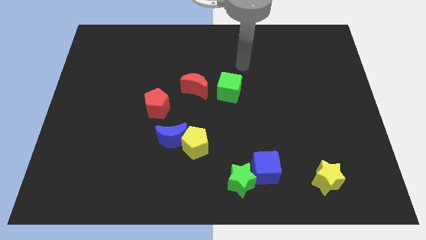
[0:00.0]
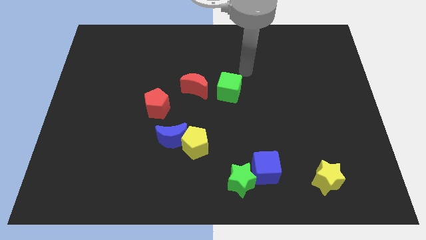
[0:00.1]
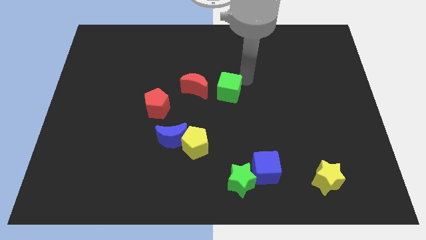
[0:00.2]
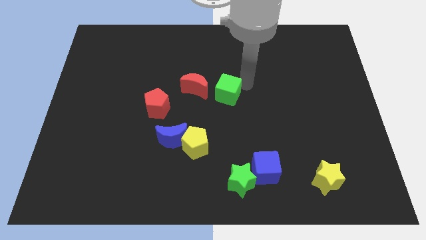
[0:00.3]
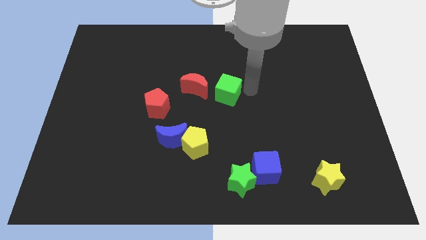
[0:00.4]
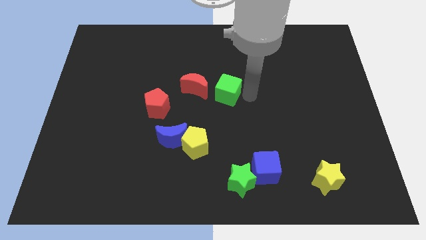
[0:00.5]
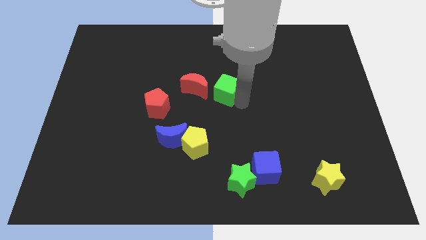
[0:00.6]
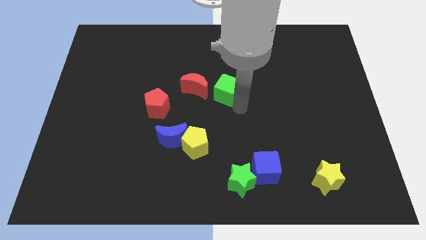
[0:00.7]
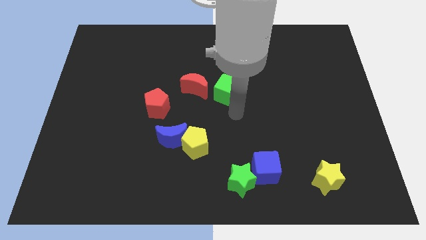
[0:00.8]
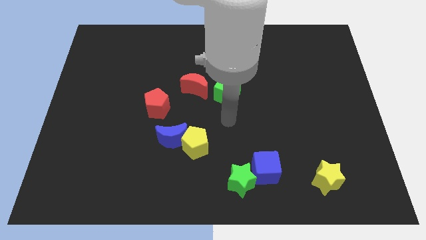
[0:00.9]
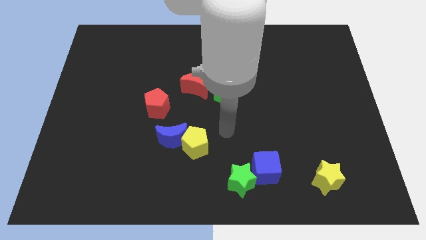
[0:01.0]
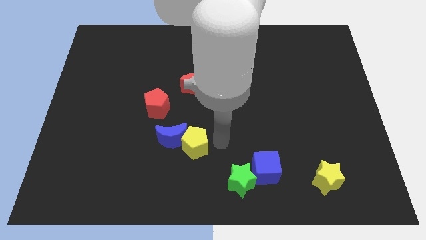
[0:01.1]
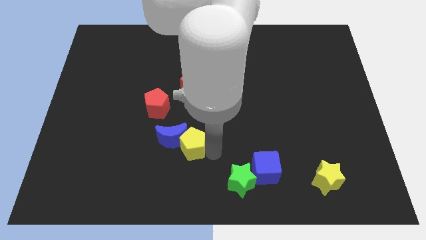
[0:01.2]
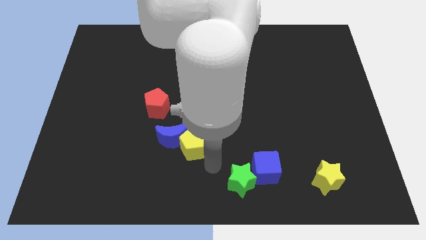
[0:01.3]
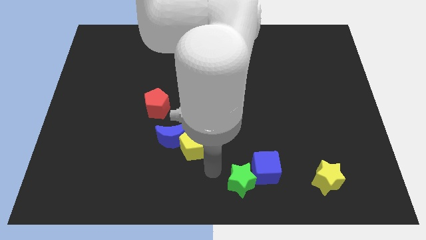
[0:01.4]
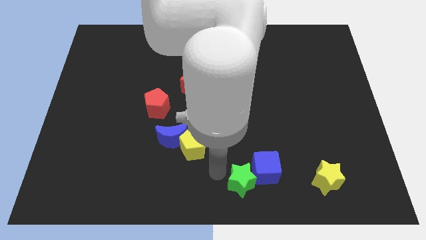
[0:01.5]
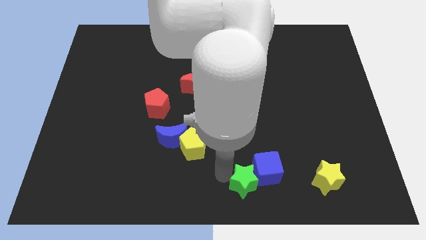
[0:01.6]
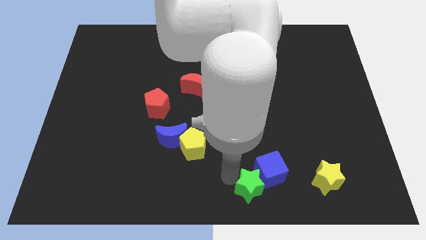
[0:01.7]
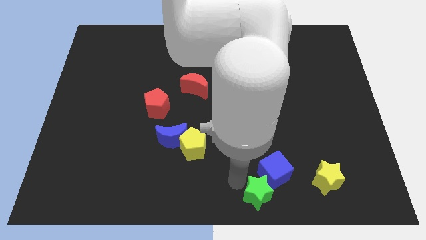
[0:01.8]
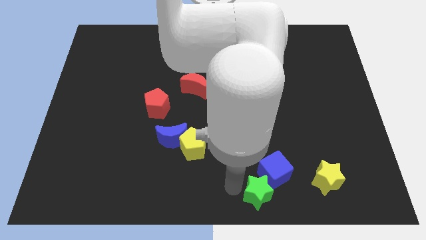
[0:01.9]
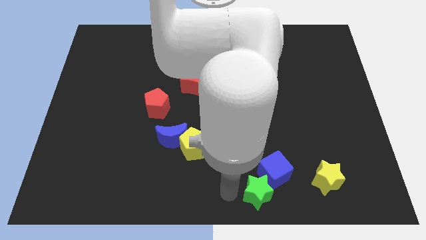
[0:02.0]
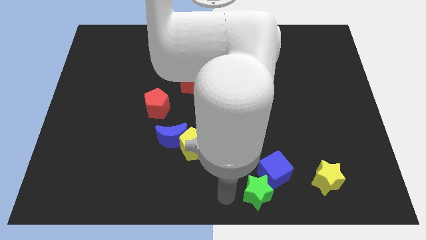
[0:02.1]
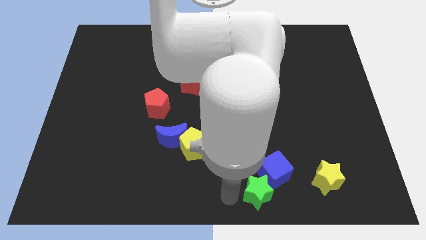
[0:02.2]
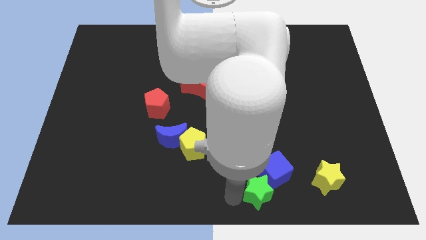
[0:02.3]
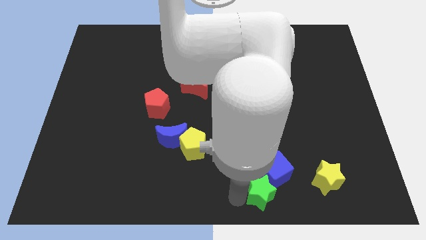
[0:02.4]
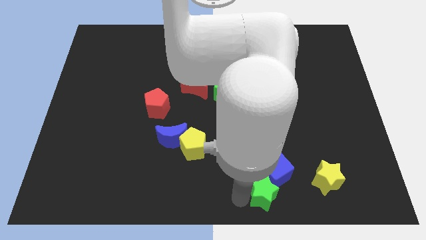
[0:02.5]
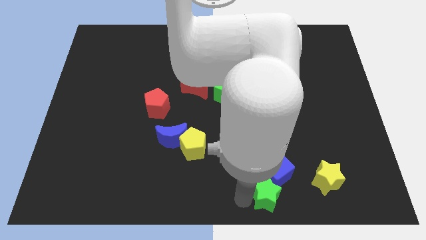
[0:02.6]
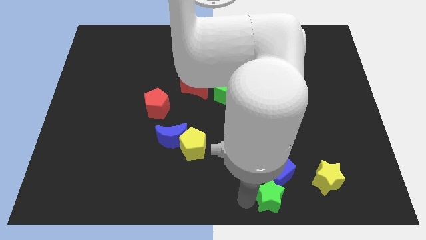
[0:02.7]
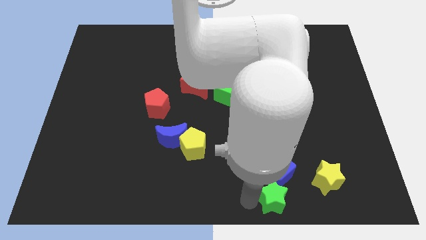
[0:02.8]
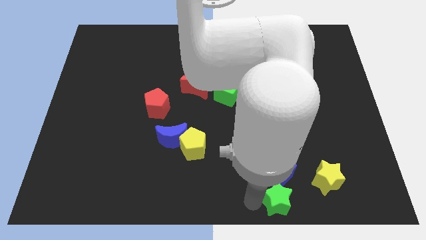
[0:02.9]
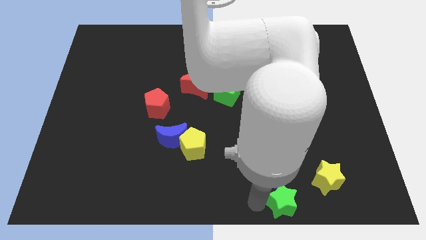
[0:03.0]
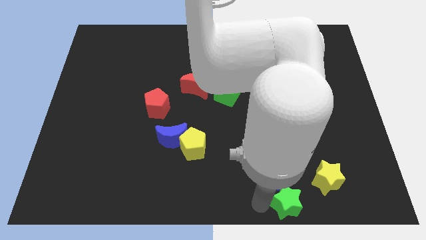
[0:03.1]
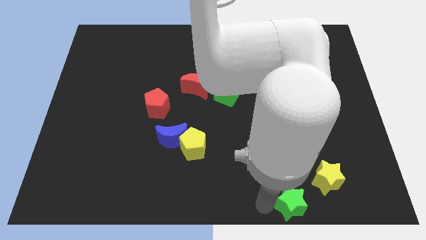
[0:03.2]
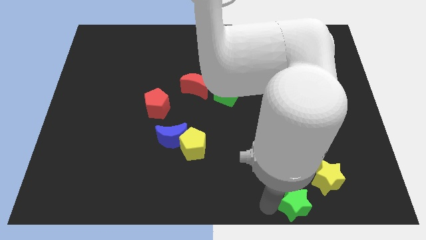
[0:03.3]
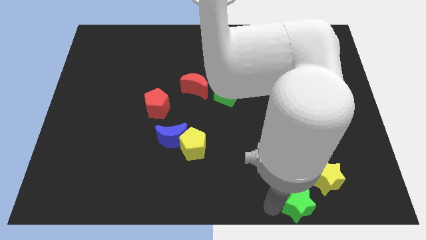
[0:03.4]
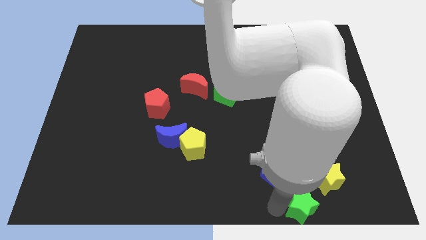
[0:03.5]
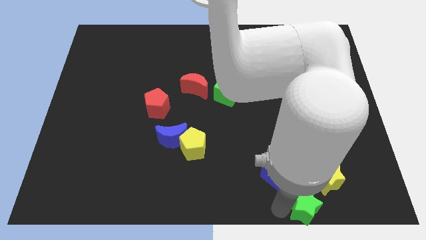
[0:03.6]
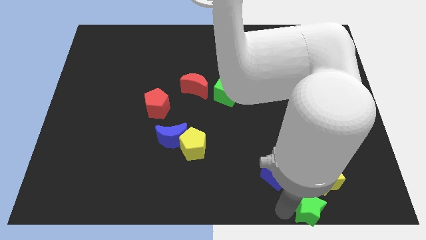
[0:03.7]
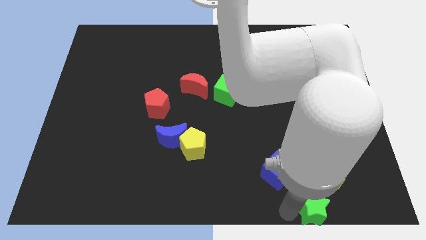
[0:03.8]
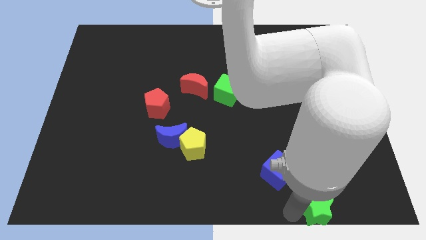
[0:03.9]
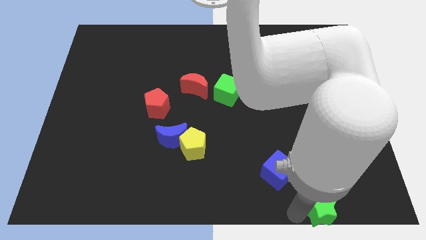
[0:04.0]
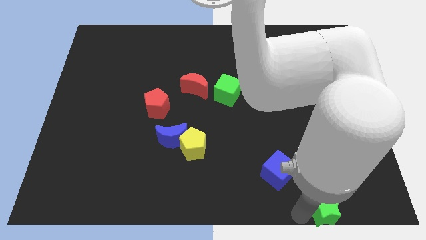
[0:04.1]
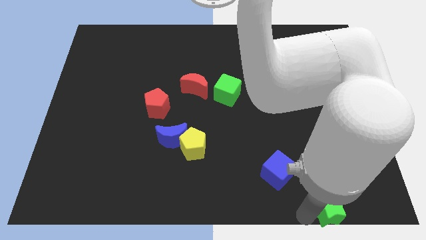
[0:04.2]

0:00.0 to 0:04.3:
slide the green star to the yellow star

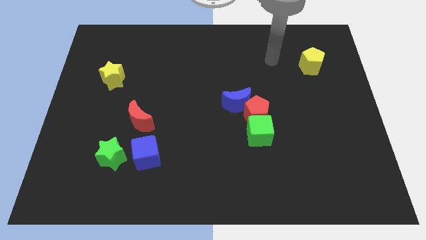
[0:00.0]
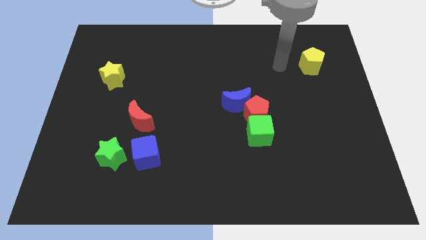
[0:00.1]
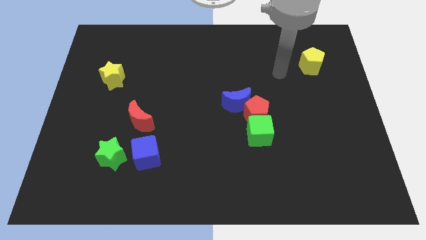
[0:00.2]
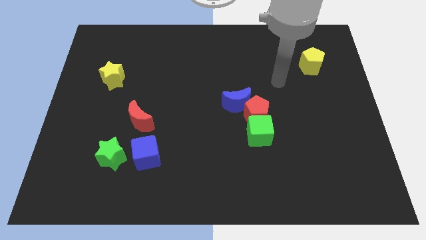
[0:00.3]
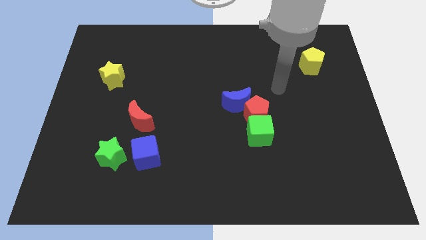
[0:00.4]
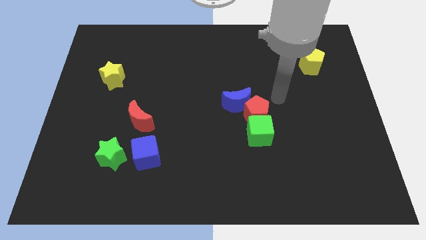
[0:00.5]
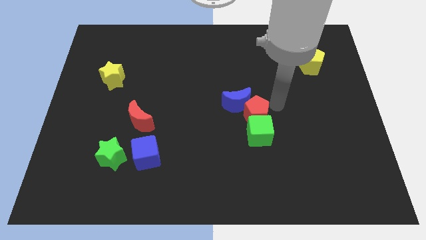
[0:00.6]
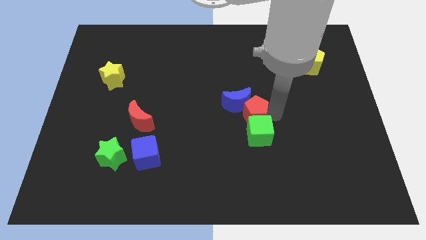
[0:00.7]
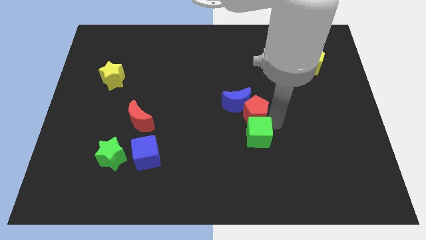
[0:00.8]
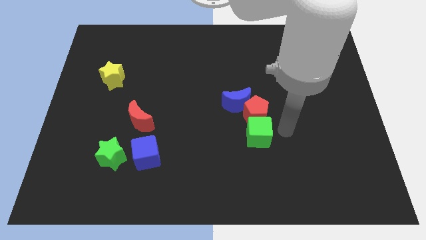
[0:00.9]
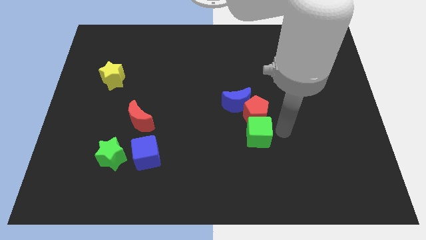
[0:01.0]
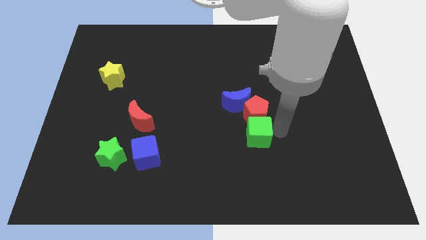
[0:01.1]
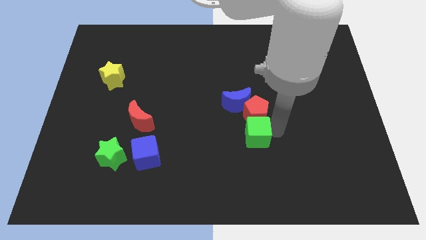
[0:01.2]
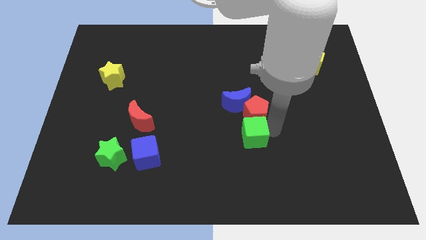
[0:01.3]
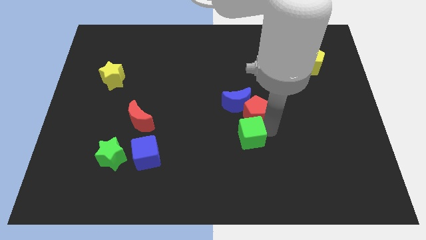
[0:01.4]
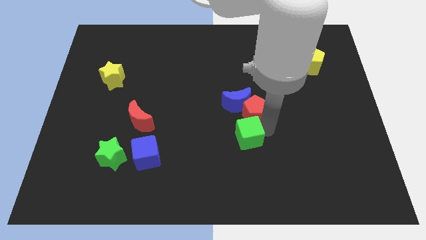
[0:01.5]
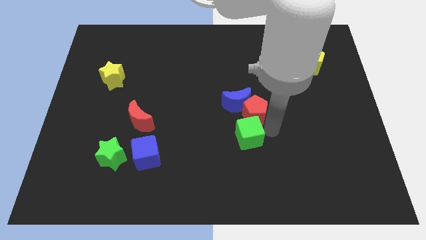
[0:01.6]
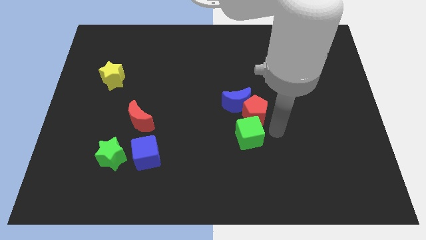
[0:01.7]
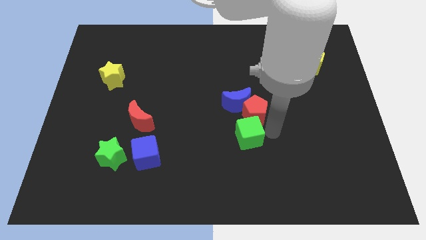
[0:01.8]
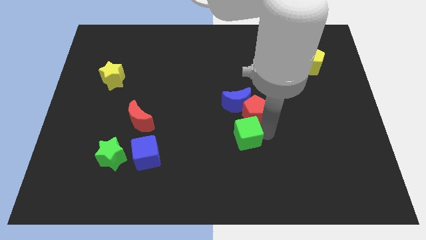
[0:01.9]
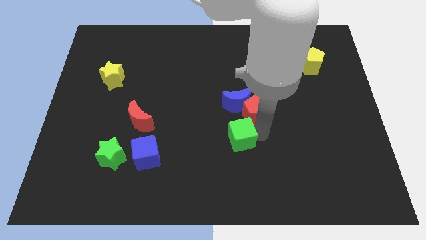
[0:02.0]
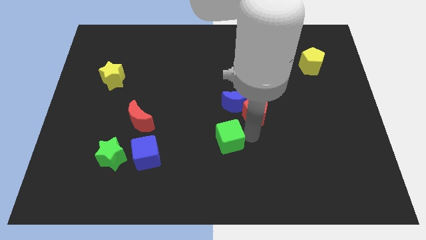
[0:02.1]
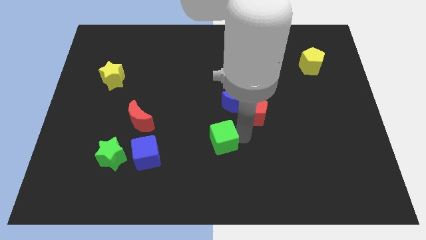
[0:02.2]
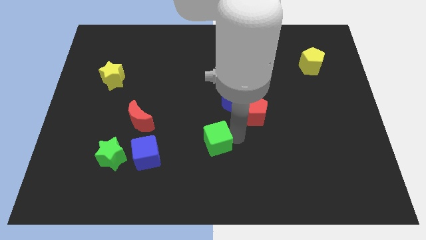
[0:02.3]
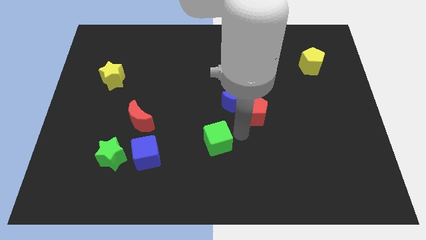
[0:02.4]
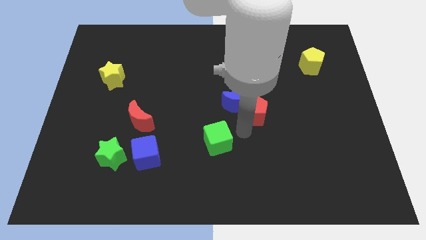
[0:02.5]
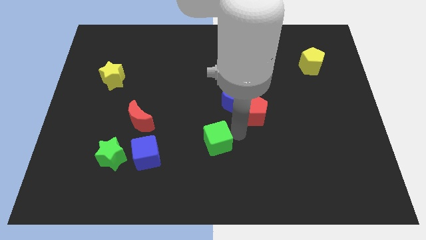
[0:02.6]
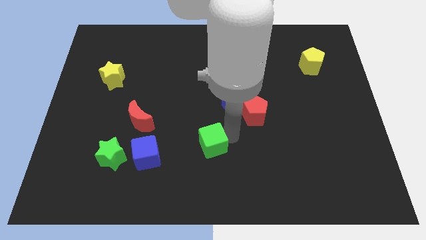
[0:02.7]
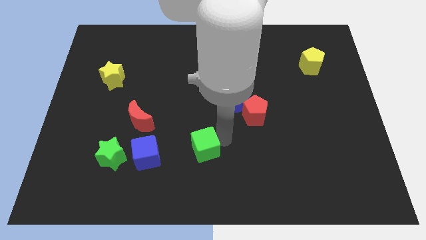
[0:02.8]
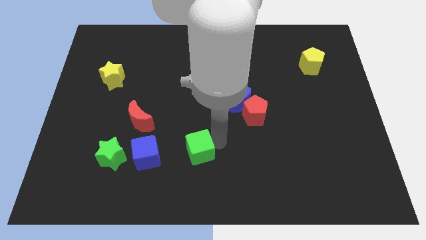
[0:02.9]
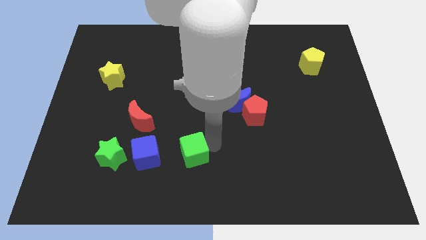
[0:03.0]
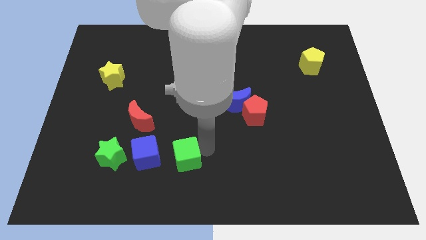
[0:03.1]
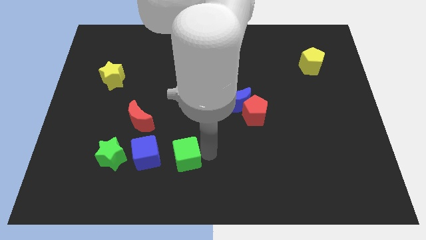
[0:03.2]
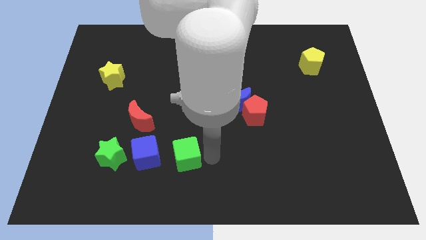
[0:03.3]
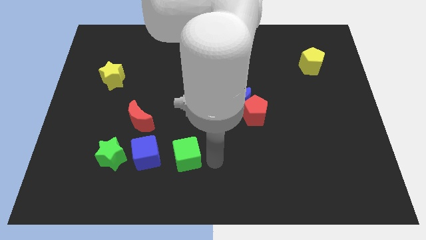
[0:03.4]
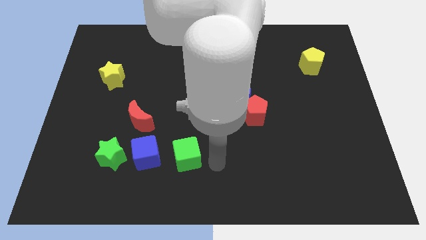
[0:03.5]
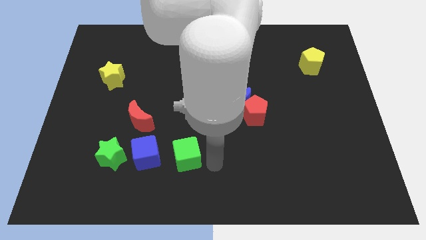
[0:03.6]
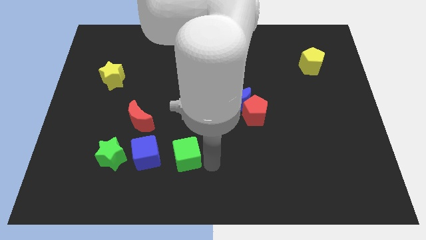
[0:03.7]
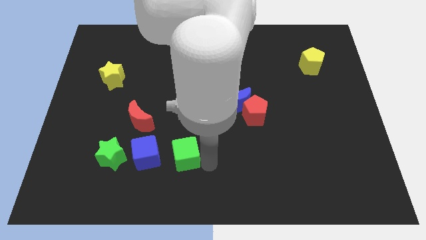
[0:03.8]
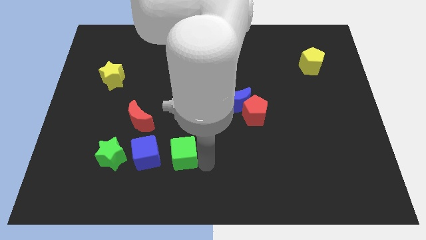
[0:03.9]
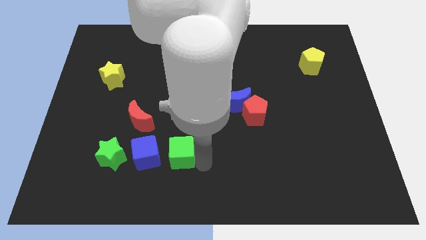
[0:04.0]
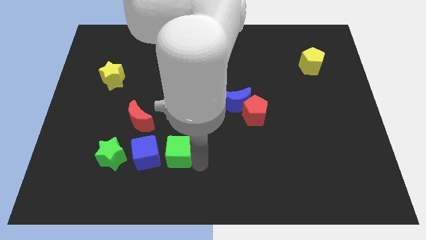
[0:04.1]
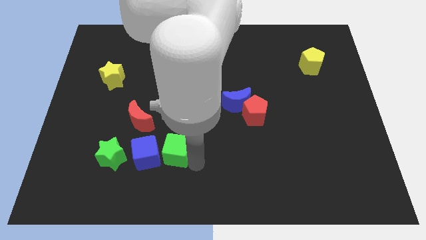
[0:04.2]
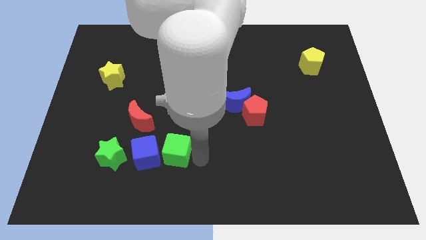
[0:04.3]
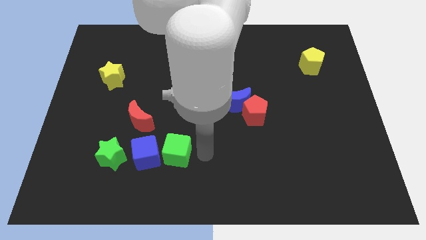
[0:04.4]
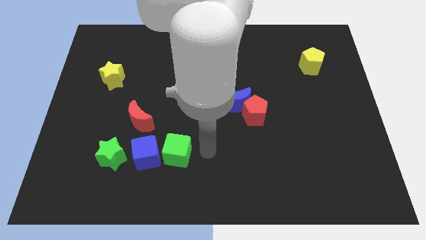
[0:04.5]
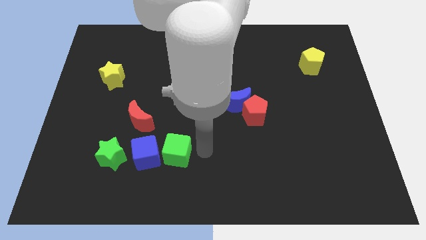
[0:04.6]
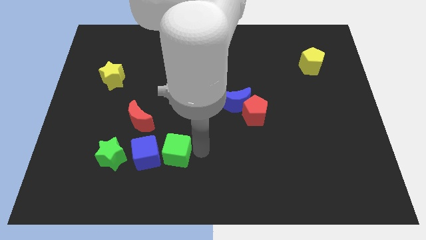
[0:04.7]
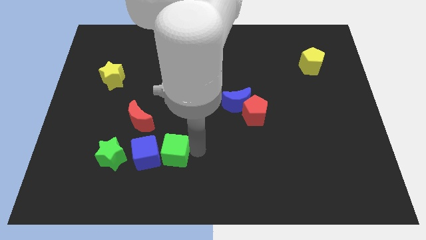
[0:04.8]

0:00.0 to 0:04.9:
slide the green cube towards the blue cube
